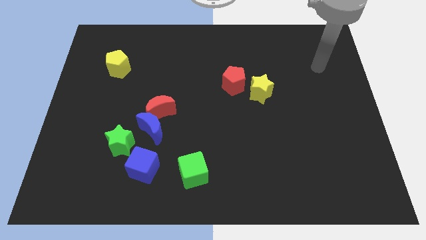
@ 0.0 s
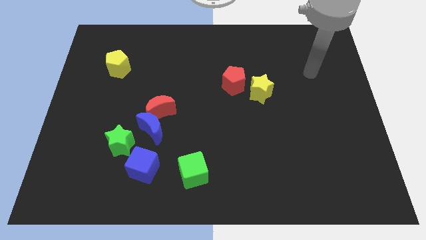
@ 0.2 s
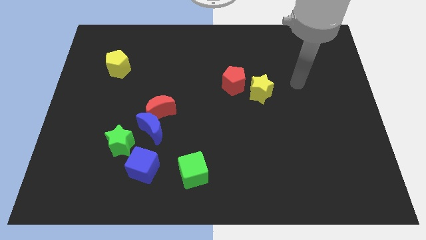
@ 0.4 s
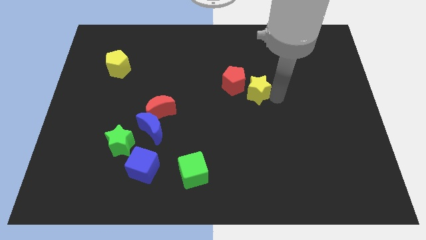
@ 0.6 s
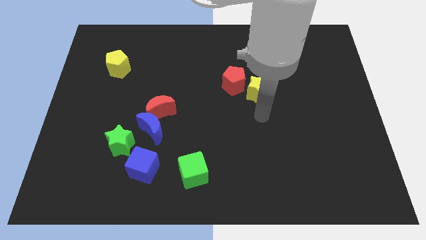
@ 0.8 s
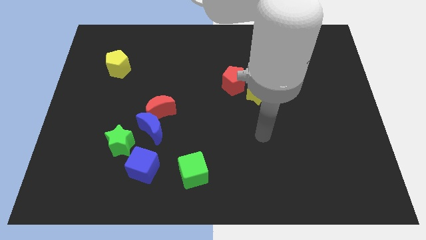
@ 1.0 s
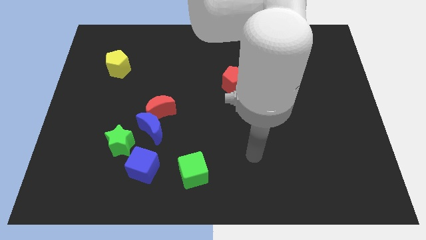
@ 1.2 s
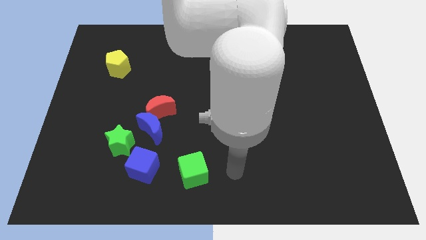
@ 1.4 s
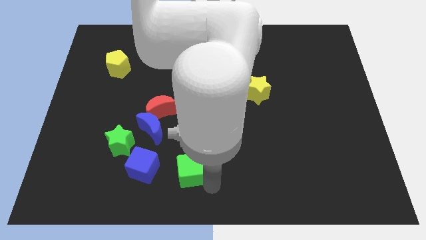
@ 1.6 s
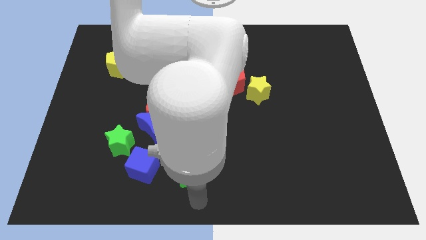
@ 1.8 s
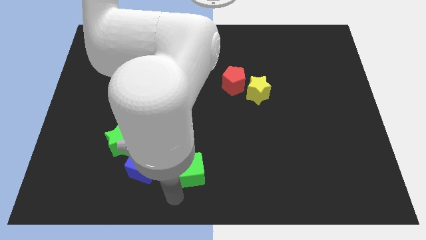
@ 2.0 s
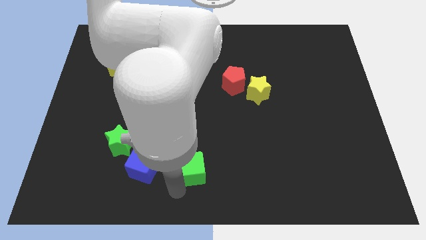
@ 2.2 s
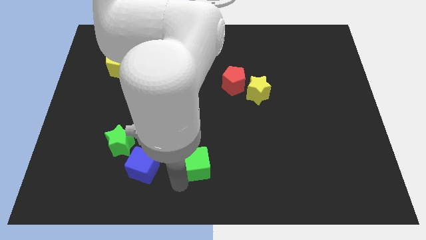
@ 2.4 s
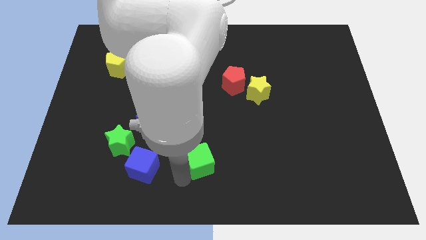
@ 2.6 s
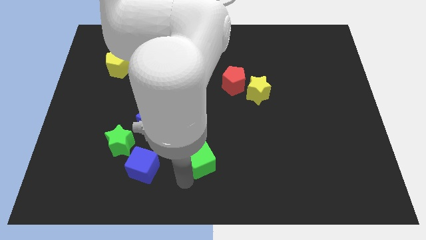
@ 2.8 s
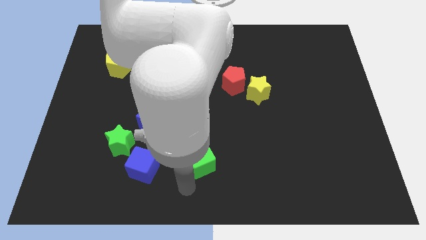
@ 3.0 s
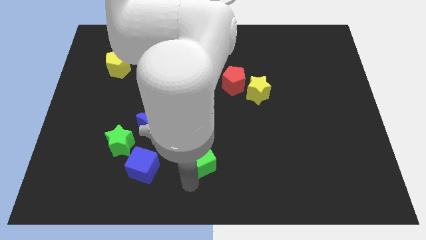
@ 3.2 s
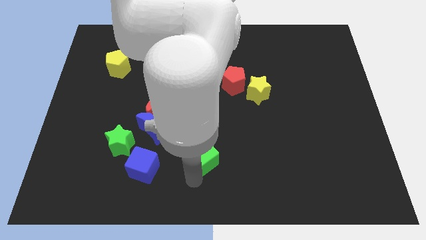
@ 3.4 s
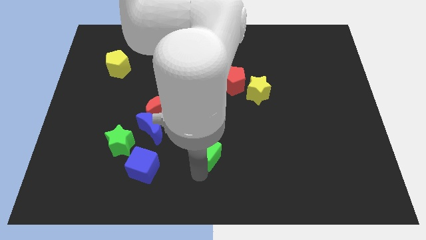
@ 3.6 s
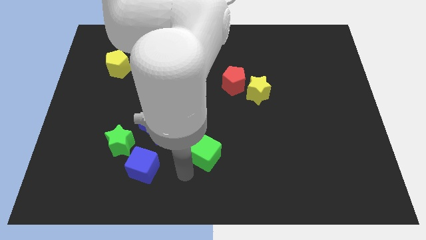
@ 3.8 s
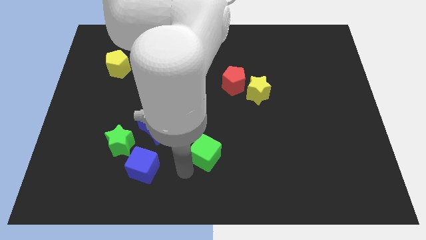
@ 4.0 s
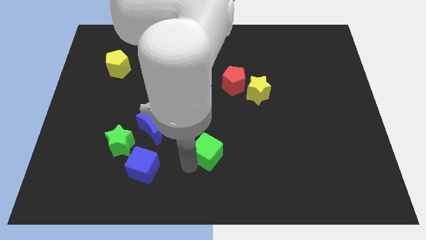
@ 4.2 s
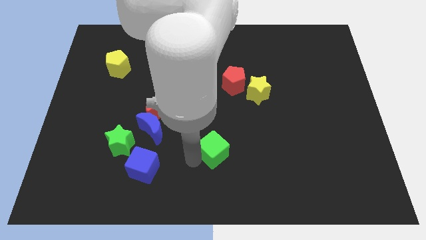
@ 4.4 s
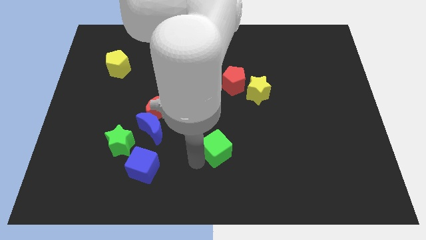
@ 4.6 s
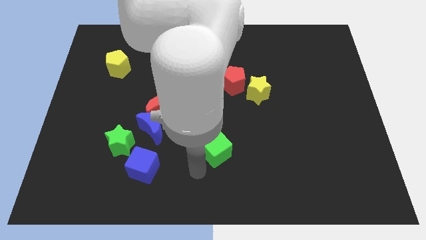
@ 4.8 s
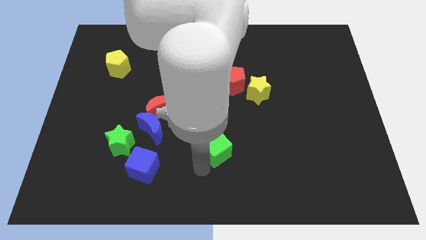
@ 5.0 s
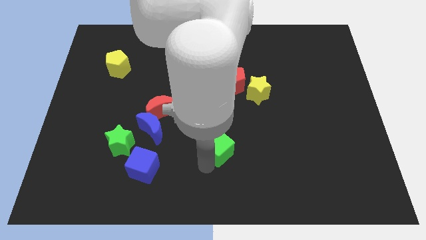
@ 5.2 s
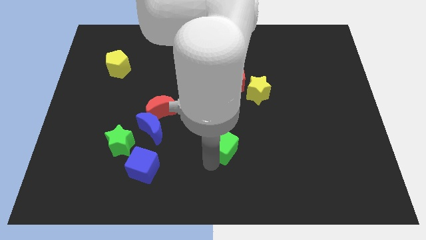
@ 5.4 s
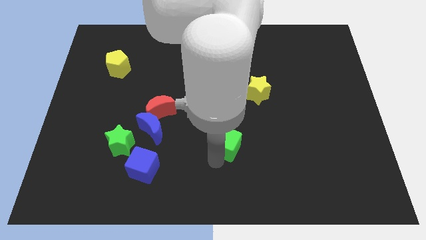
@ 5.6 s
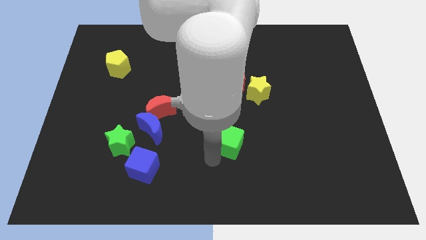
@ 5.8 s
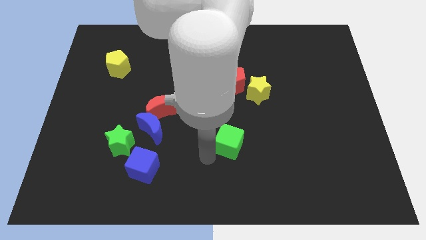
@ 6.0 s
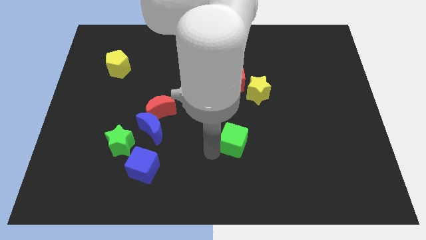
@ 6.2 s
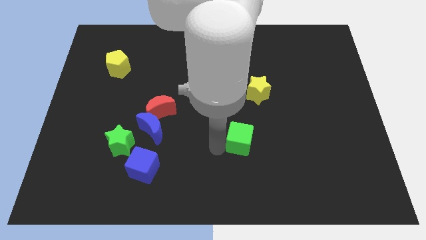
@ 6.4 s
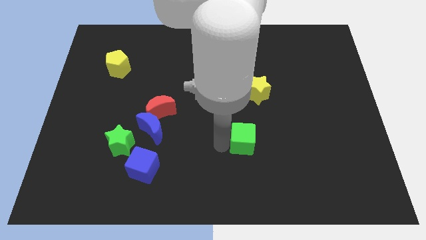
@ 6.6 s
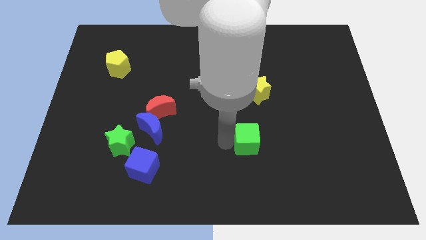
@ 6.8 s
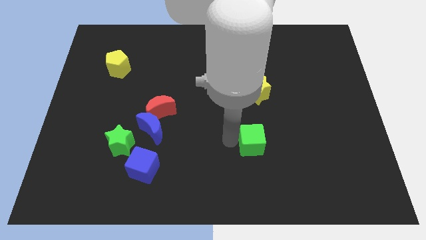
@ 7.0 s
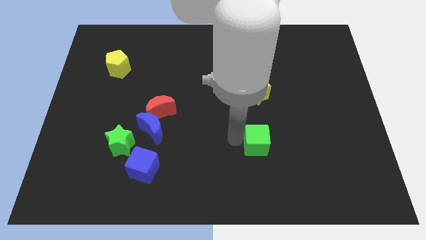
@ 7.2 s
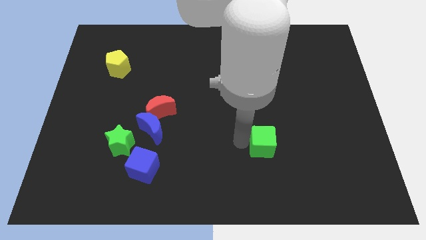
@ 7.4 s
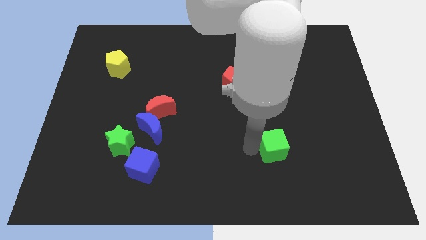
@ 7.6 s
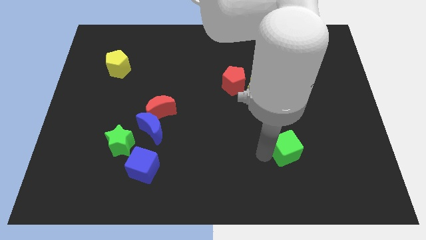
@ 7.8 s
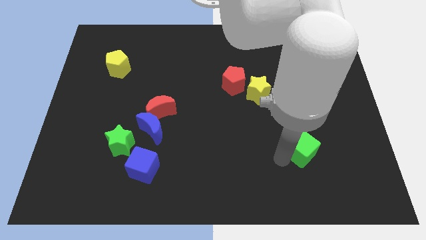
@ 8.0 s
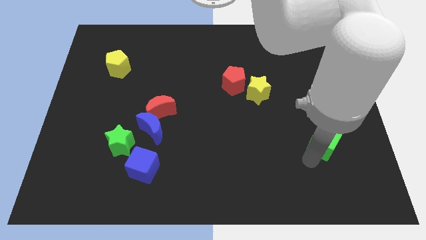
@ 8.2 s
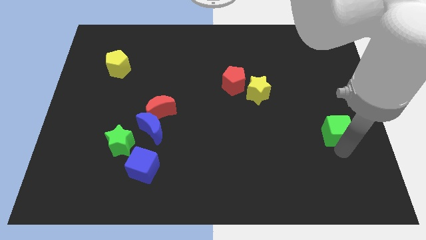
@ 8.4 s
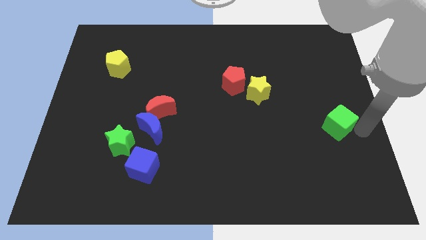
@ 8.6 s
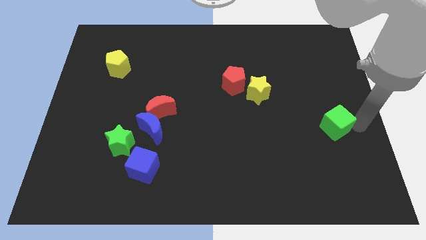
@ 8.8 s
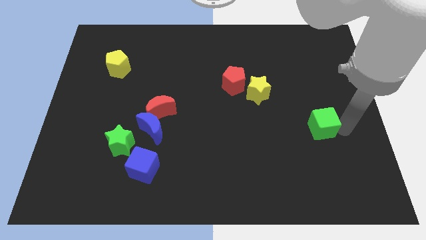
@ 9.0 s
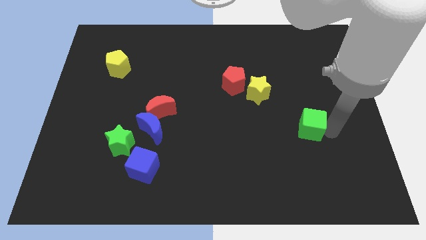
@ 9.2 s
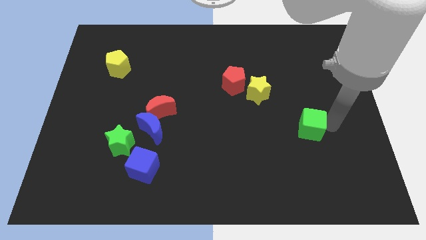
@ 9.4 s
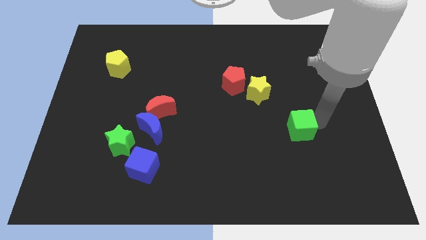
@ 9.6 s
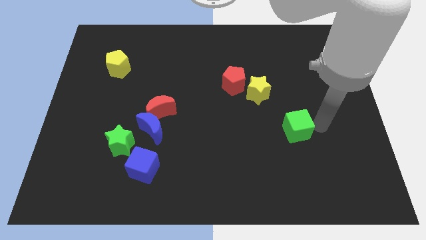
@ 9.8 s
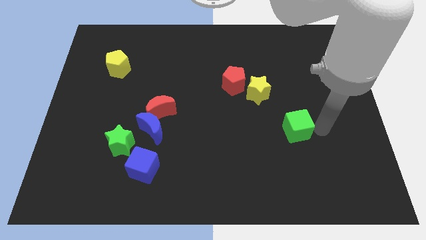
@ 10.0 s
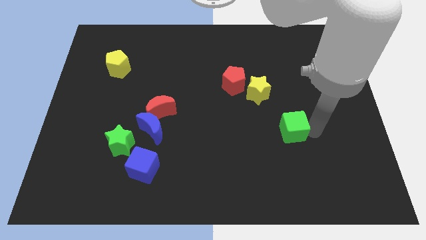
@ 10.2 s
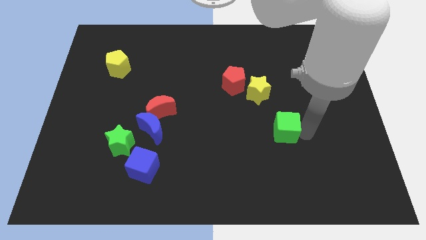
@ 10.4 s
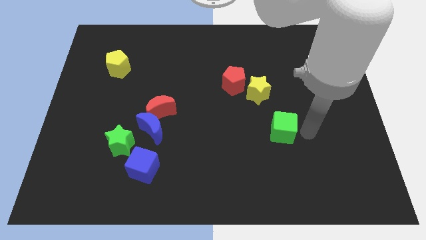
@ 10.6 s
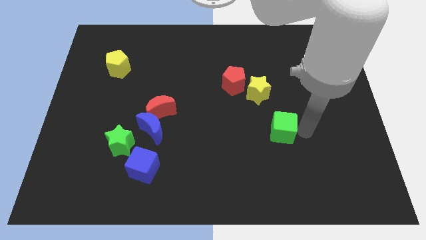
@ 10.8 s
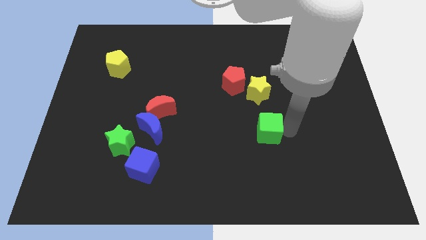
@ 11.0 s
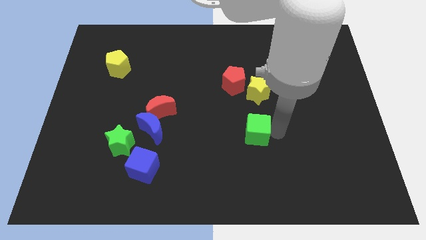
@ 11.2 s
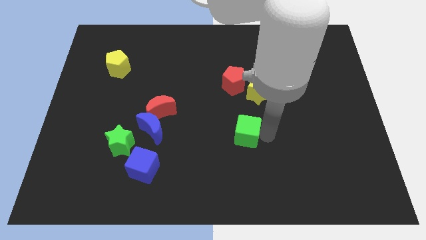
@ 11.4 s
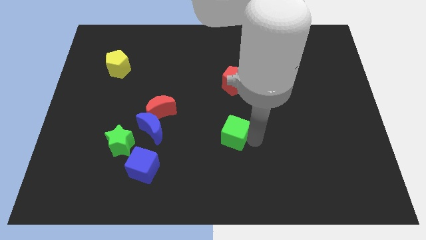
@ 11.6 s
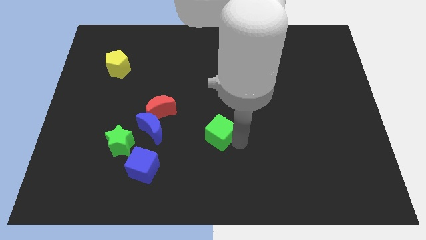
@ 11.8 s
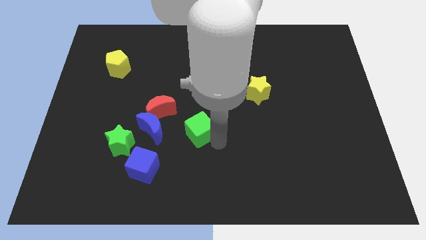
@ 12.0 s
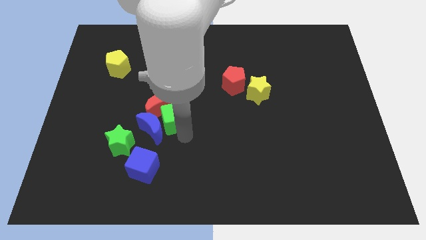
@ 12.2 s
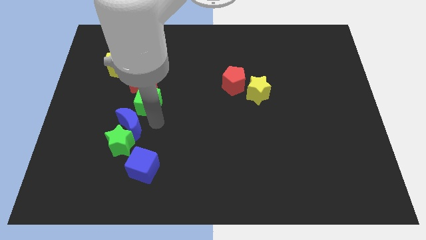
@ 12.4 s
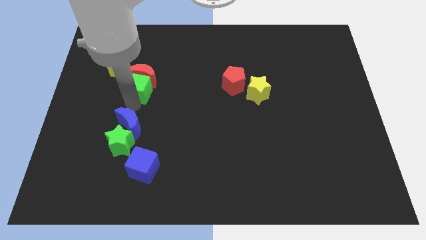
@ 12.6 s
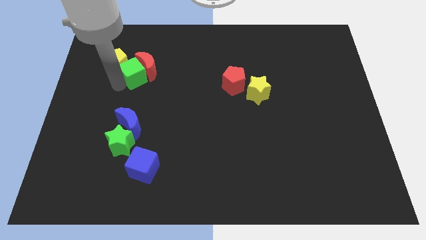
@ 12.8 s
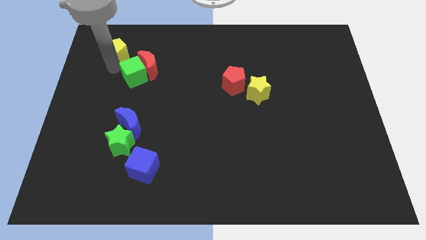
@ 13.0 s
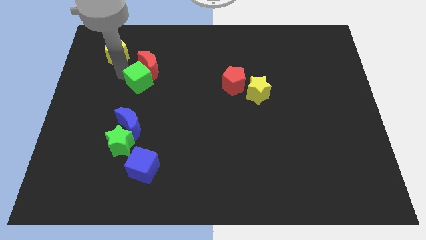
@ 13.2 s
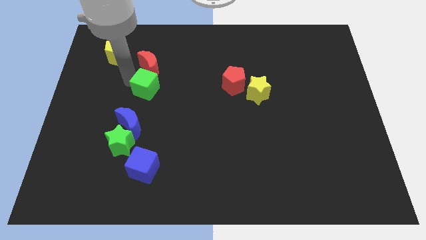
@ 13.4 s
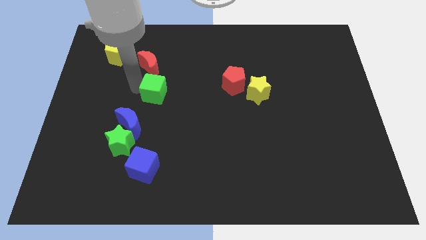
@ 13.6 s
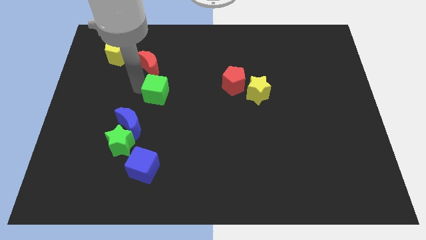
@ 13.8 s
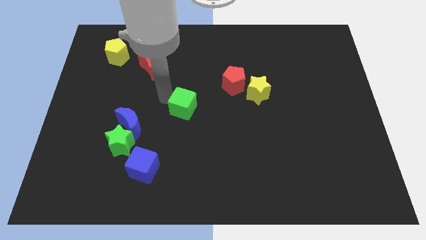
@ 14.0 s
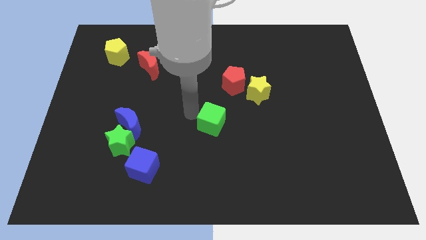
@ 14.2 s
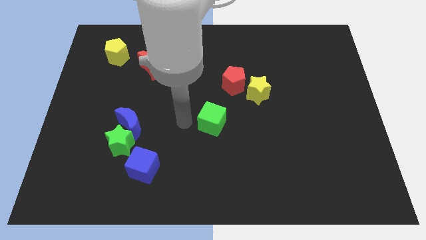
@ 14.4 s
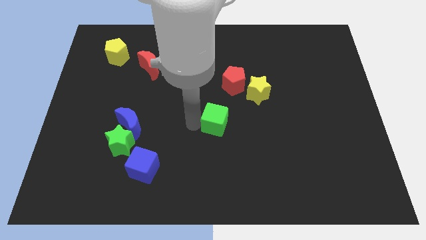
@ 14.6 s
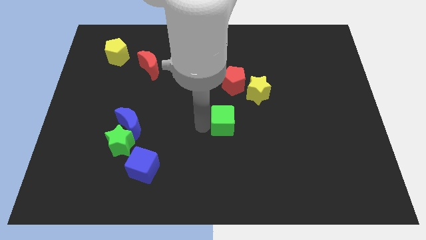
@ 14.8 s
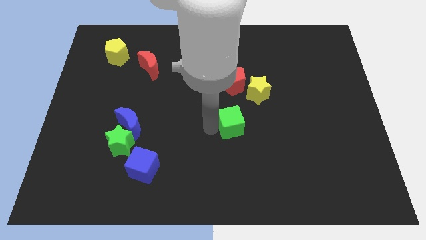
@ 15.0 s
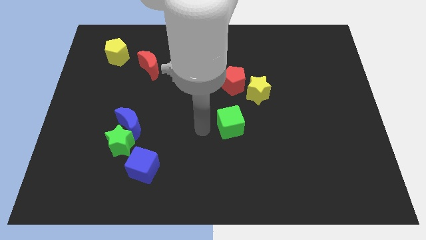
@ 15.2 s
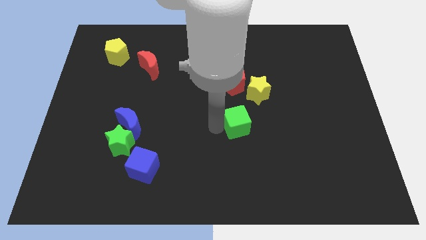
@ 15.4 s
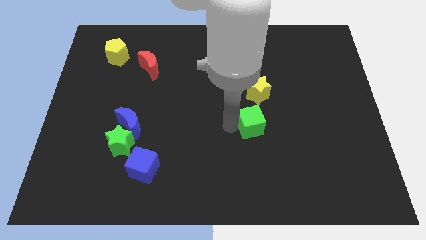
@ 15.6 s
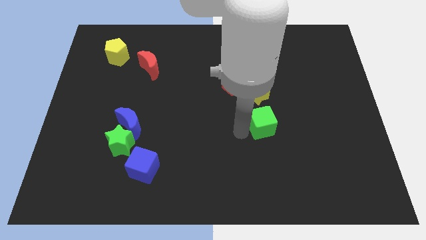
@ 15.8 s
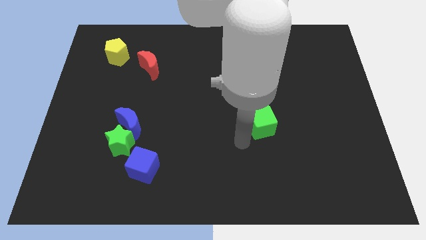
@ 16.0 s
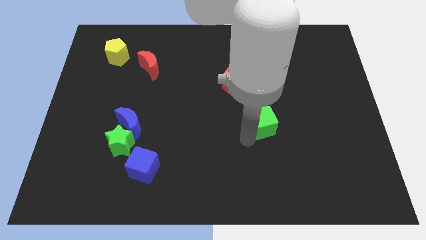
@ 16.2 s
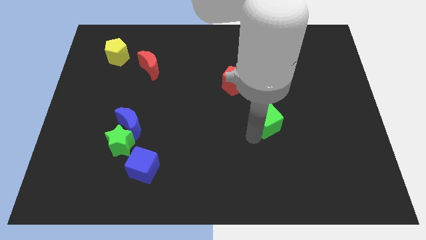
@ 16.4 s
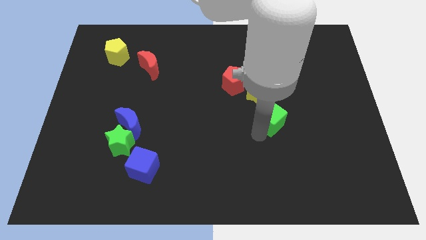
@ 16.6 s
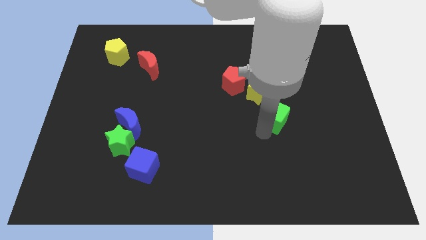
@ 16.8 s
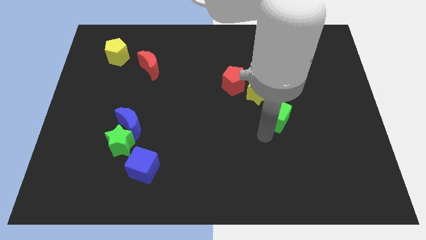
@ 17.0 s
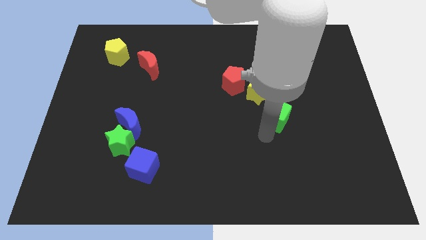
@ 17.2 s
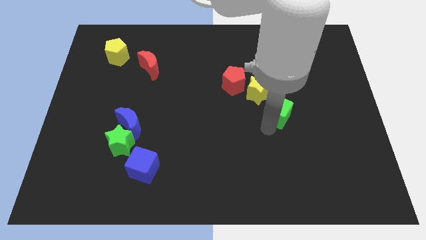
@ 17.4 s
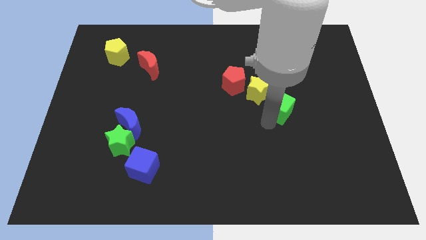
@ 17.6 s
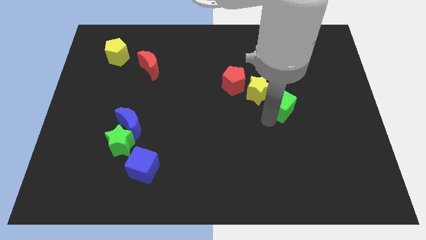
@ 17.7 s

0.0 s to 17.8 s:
slide the green cube just right of the yellow star
